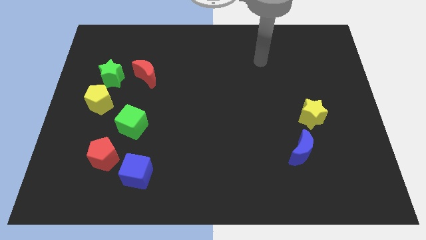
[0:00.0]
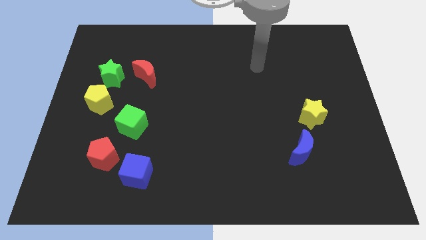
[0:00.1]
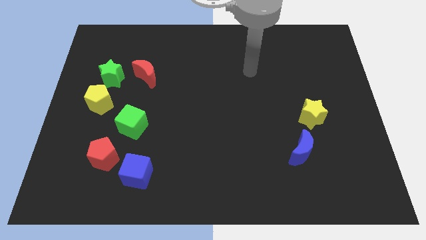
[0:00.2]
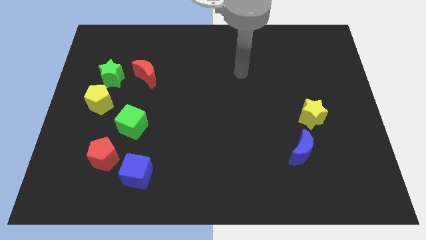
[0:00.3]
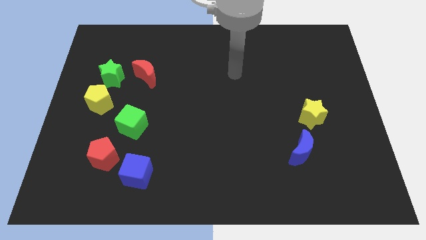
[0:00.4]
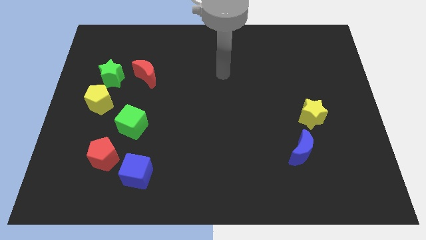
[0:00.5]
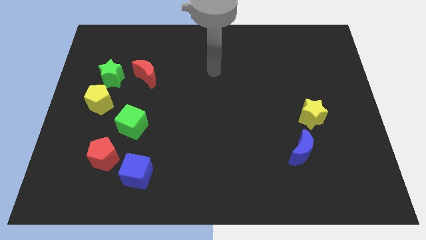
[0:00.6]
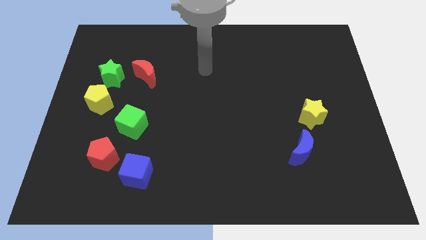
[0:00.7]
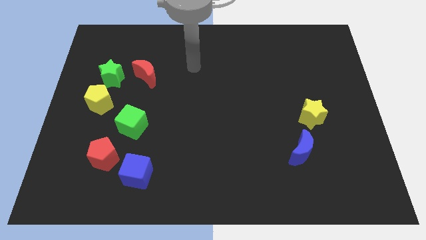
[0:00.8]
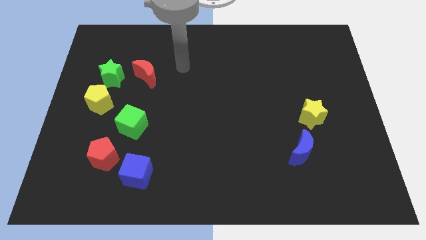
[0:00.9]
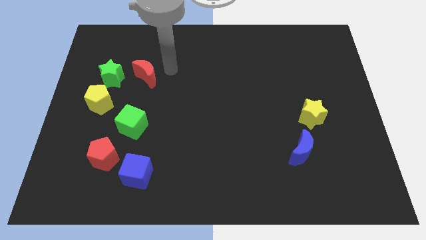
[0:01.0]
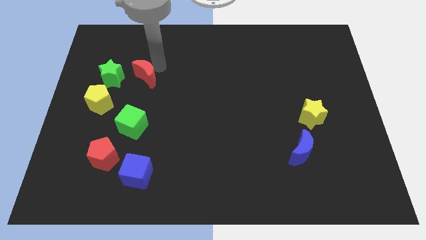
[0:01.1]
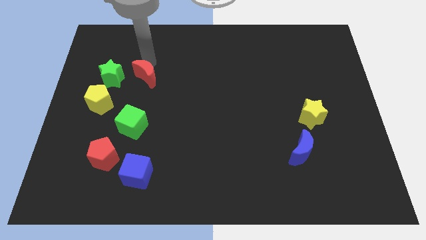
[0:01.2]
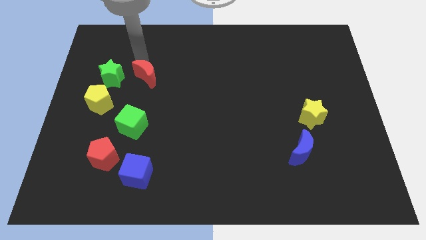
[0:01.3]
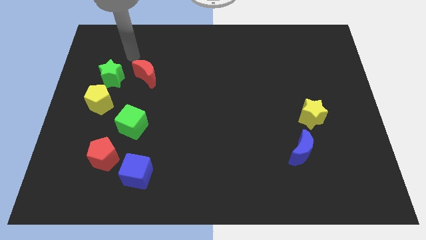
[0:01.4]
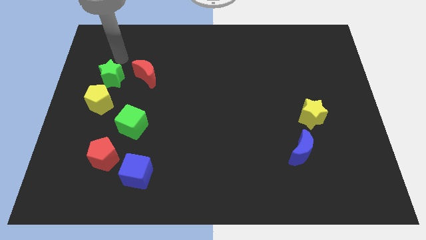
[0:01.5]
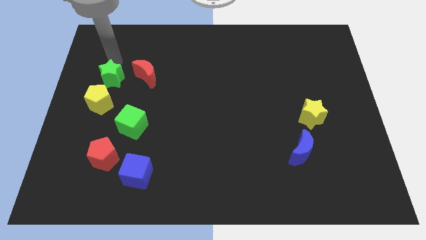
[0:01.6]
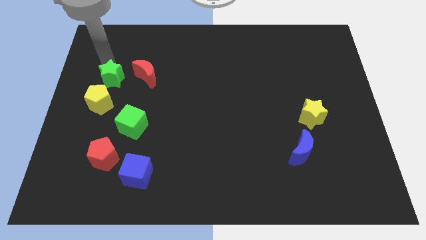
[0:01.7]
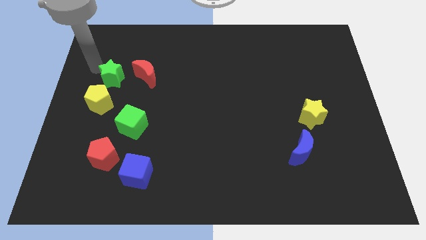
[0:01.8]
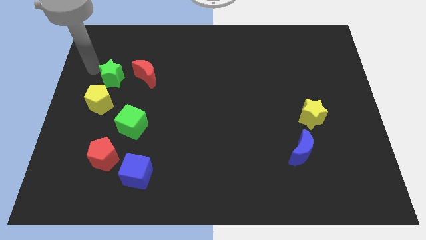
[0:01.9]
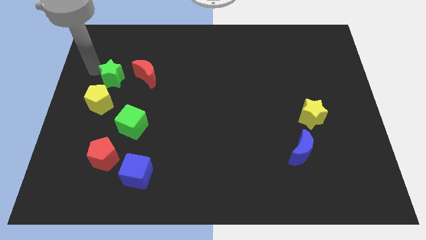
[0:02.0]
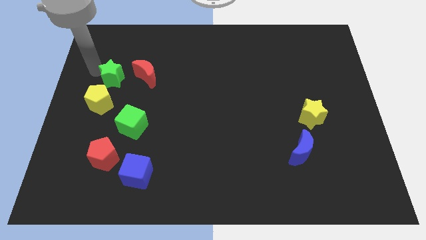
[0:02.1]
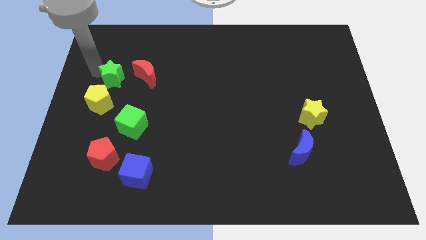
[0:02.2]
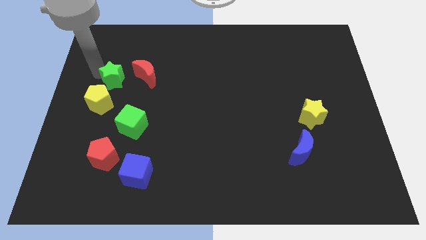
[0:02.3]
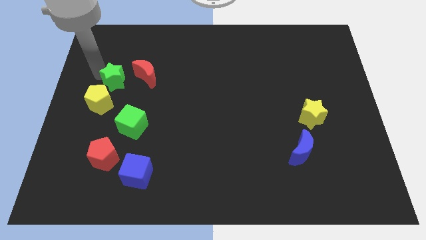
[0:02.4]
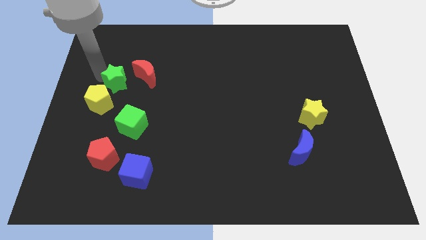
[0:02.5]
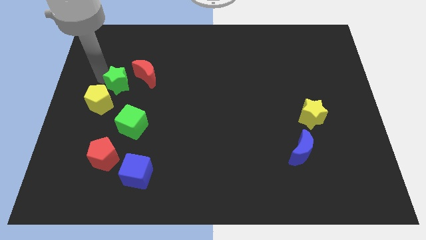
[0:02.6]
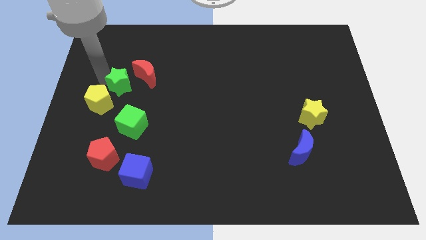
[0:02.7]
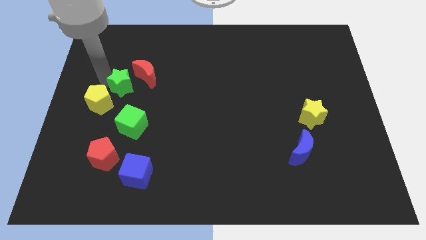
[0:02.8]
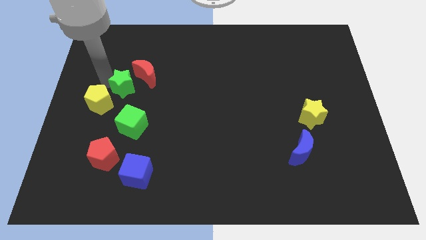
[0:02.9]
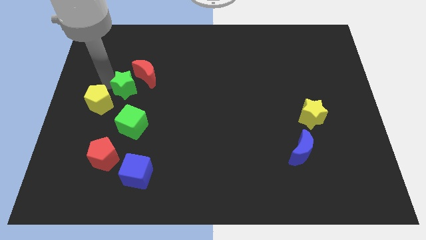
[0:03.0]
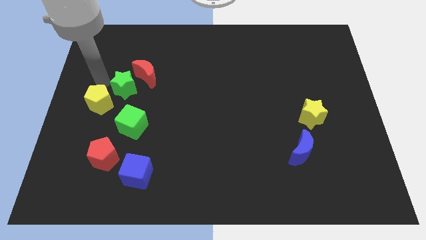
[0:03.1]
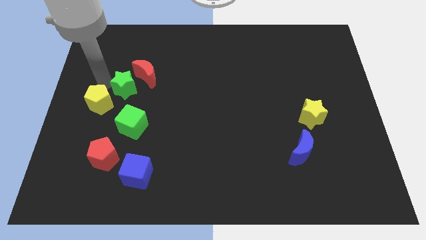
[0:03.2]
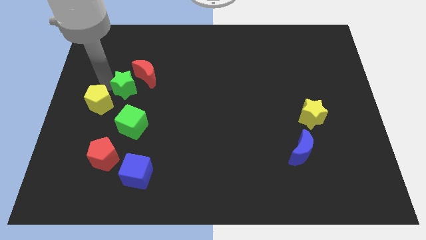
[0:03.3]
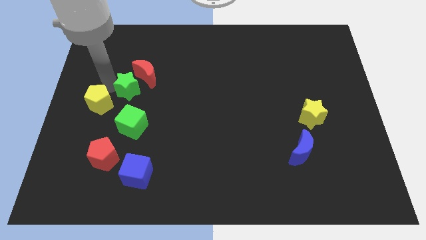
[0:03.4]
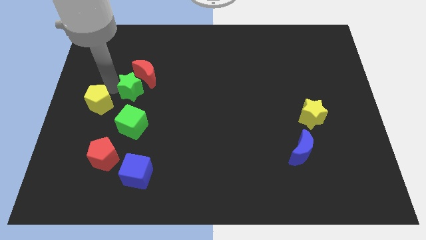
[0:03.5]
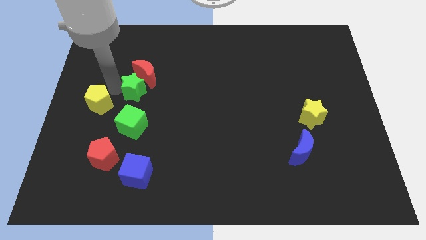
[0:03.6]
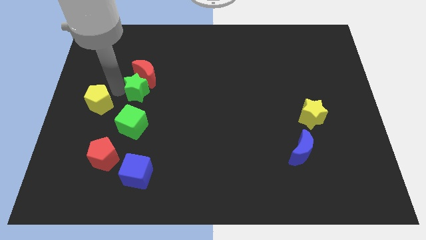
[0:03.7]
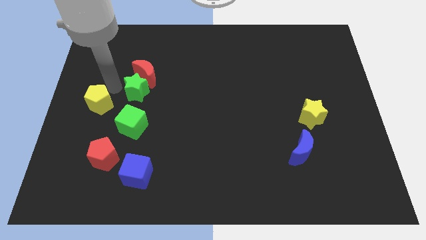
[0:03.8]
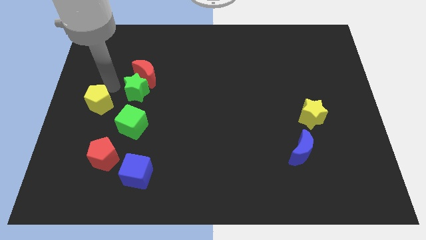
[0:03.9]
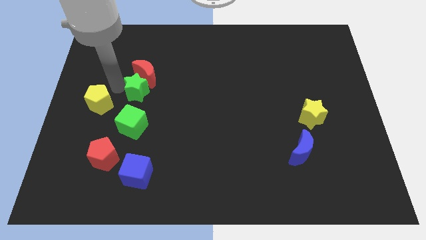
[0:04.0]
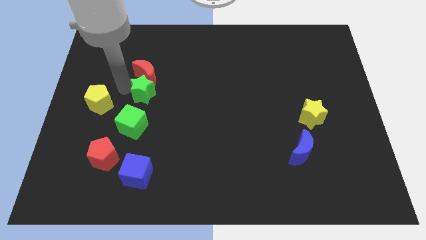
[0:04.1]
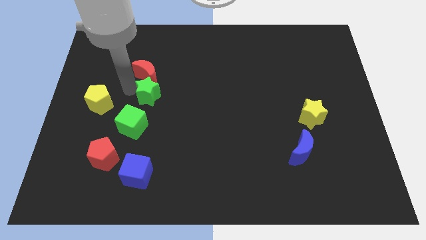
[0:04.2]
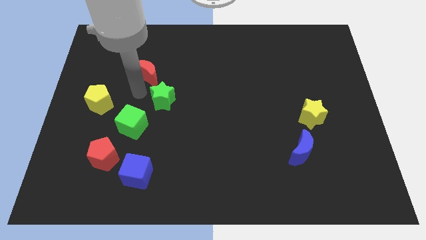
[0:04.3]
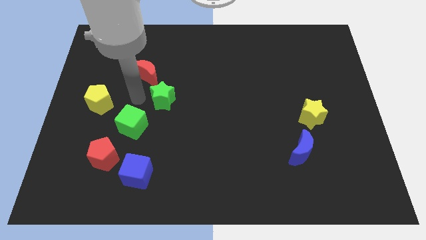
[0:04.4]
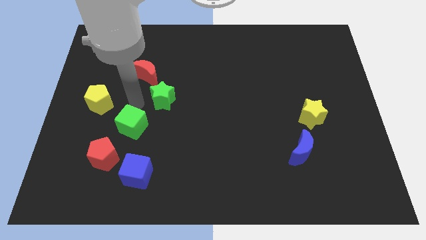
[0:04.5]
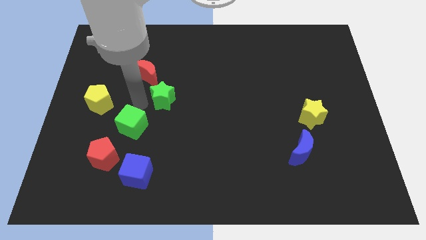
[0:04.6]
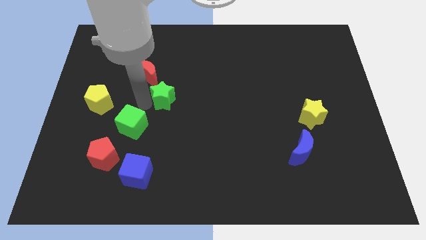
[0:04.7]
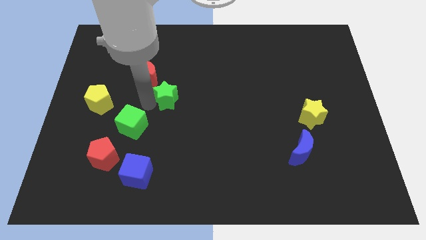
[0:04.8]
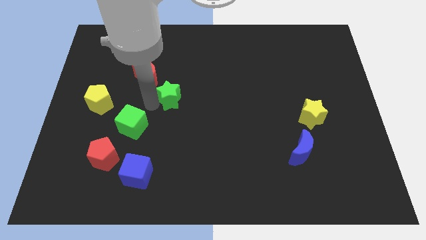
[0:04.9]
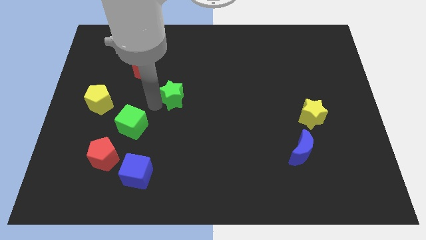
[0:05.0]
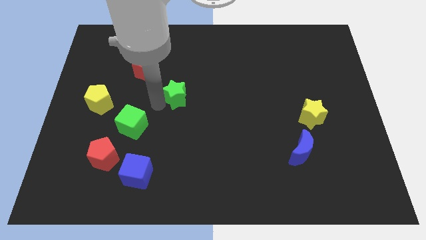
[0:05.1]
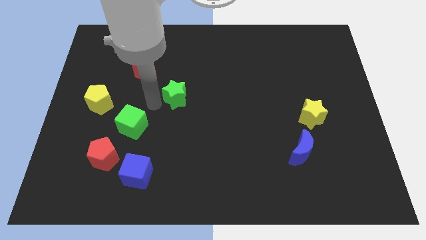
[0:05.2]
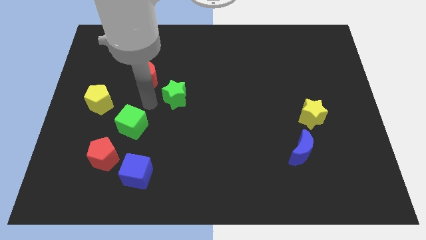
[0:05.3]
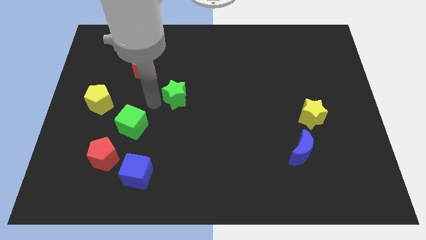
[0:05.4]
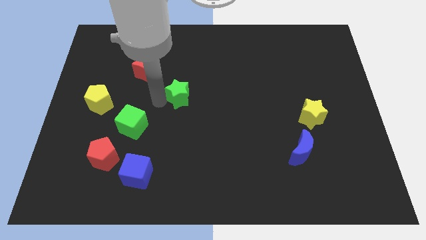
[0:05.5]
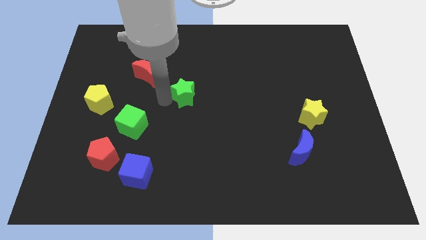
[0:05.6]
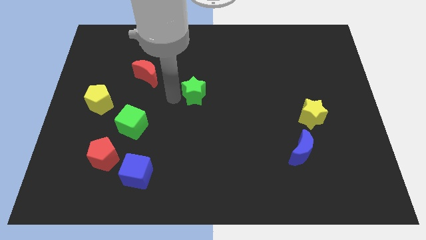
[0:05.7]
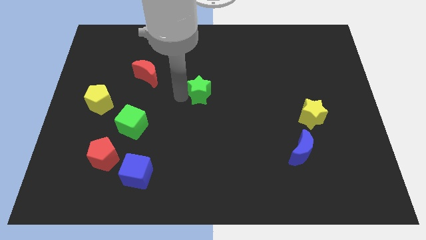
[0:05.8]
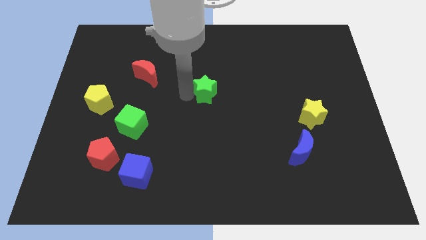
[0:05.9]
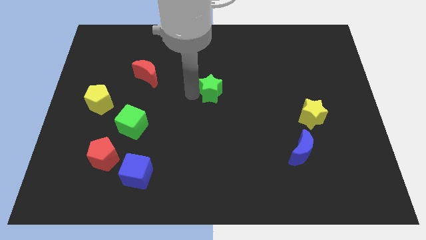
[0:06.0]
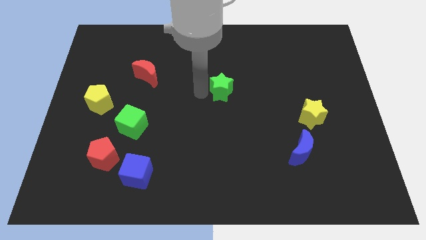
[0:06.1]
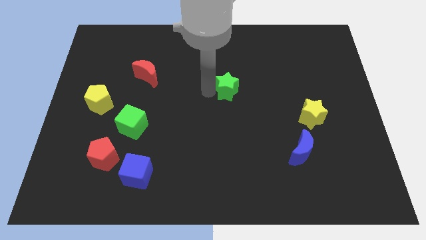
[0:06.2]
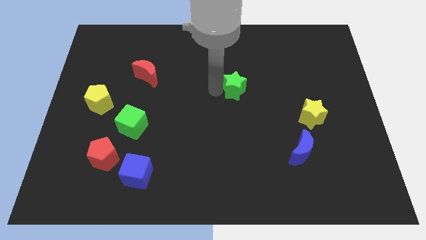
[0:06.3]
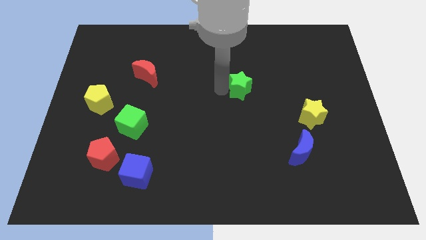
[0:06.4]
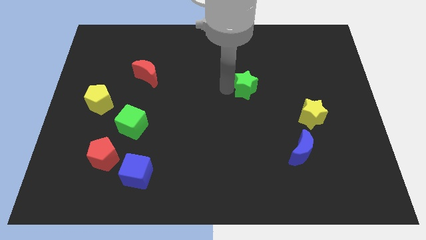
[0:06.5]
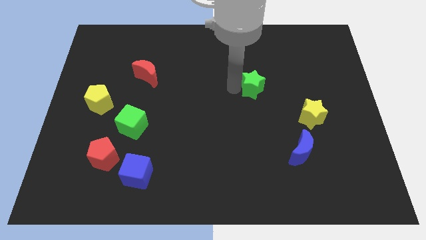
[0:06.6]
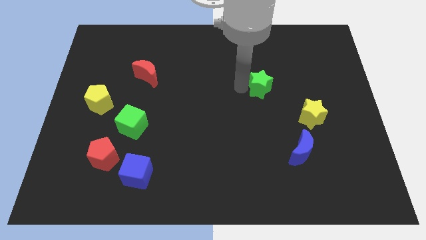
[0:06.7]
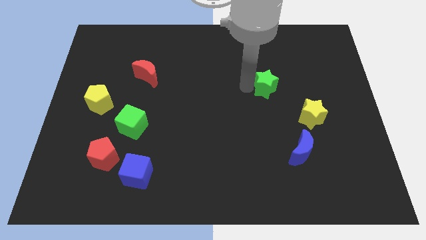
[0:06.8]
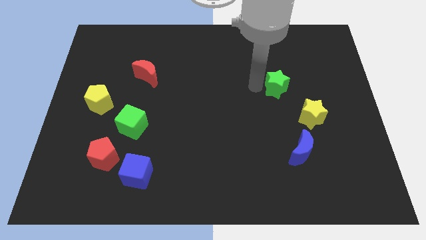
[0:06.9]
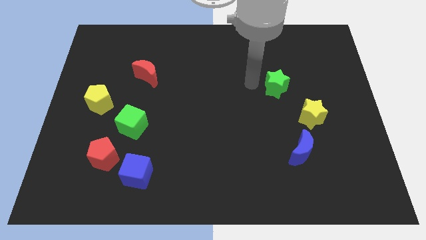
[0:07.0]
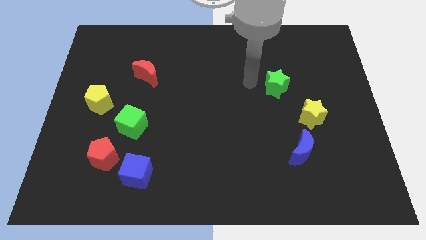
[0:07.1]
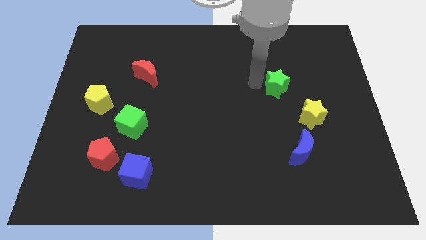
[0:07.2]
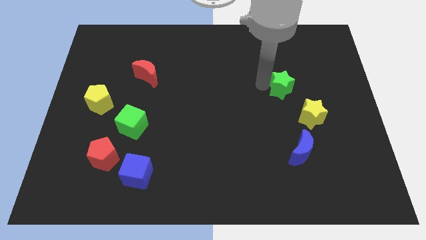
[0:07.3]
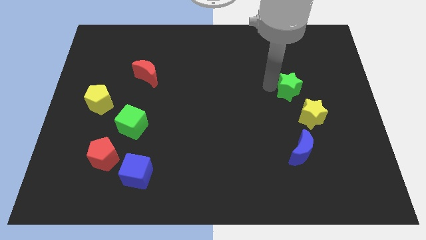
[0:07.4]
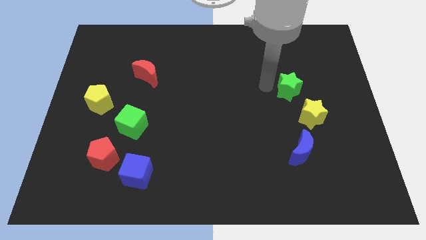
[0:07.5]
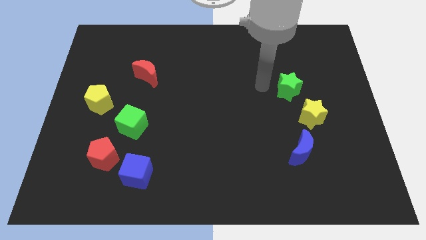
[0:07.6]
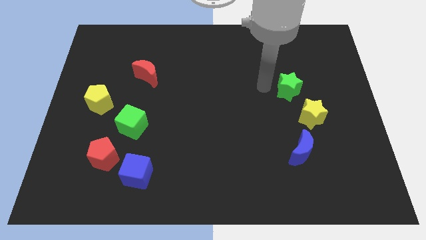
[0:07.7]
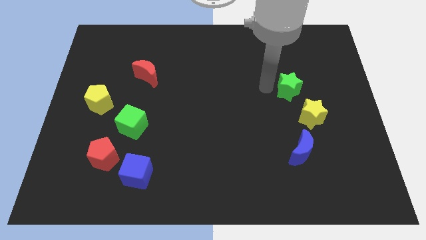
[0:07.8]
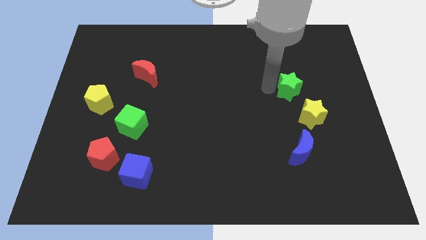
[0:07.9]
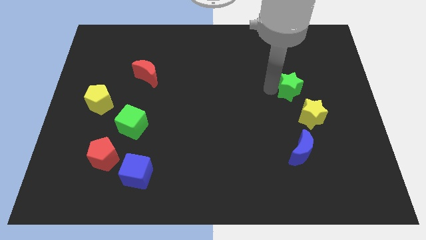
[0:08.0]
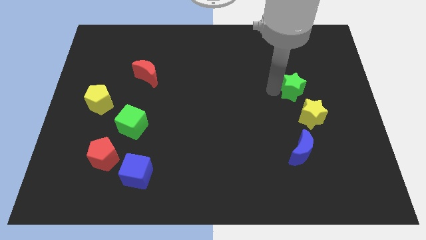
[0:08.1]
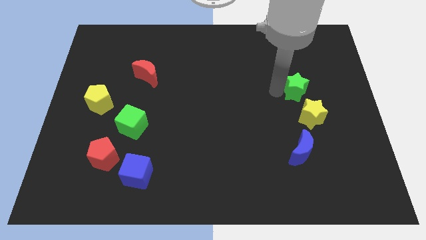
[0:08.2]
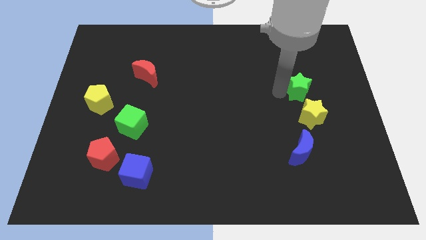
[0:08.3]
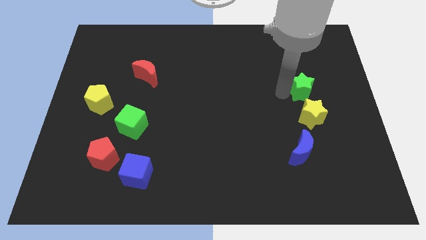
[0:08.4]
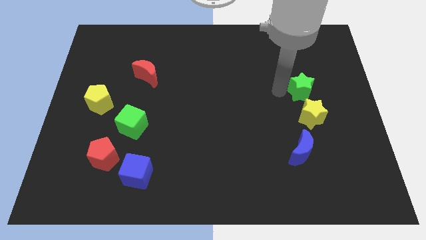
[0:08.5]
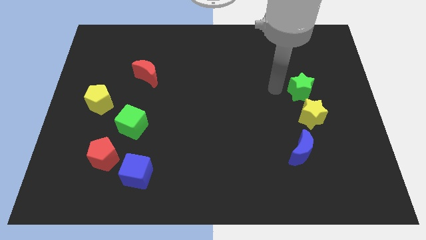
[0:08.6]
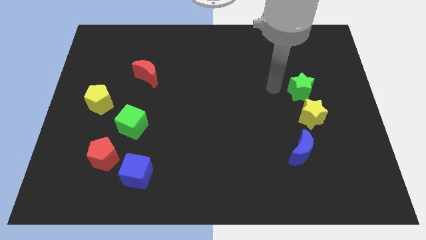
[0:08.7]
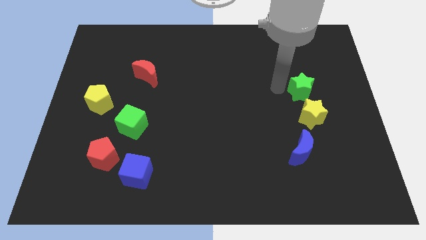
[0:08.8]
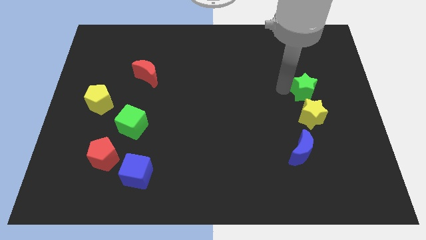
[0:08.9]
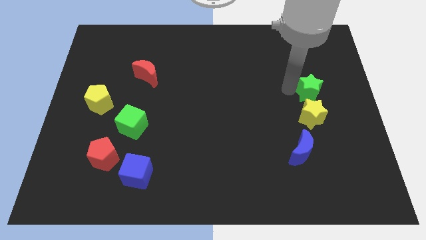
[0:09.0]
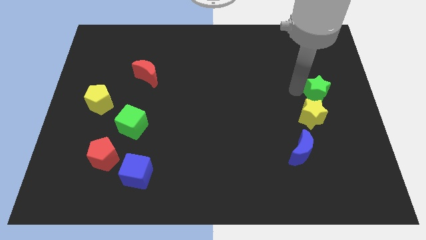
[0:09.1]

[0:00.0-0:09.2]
move the green star to the center right

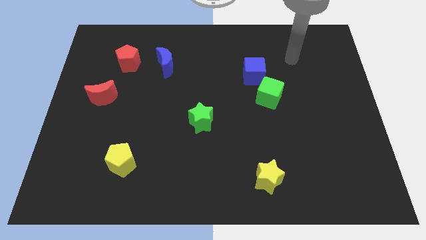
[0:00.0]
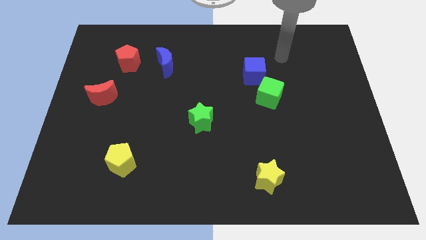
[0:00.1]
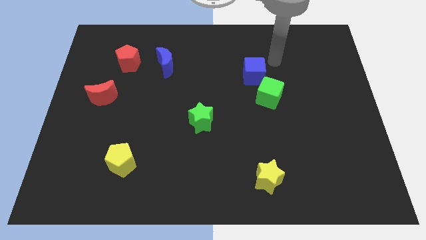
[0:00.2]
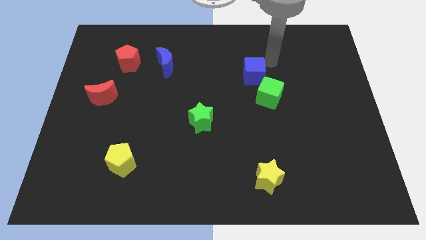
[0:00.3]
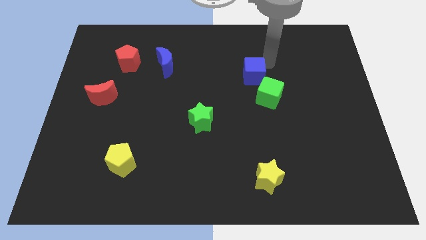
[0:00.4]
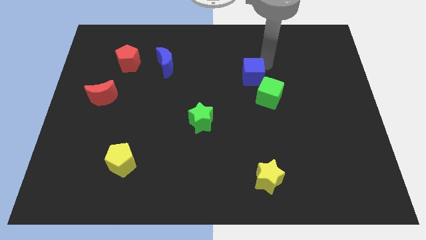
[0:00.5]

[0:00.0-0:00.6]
move the blue cube to the middle
